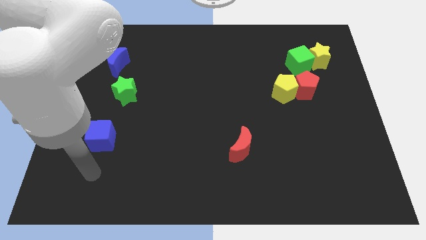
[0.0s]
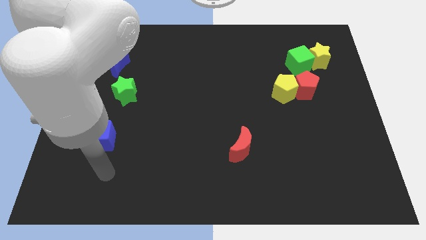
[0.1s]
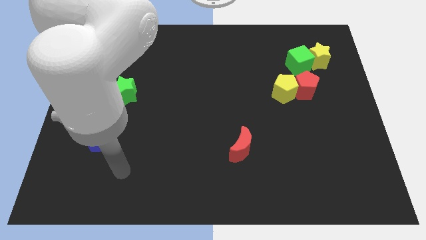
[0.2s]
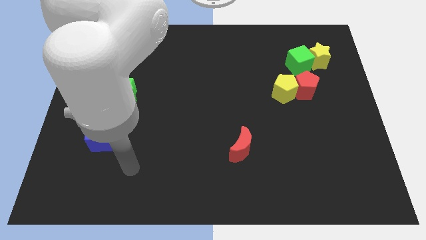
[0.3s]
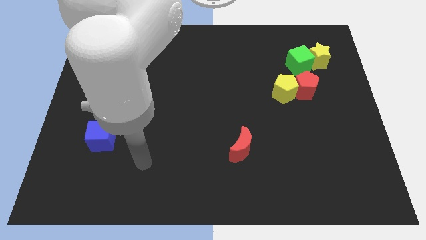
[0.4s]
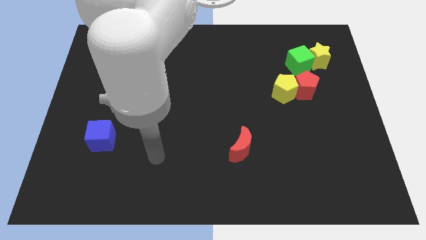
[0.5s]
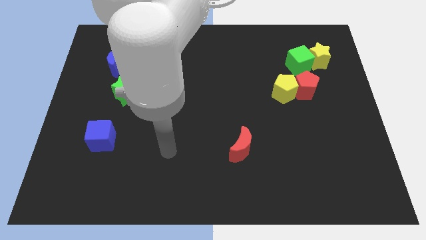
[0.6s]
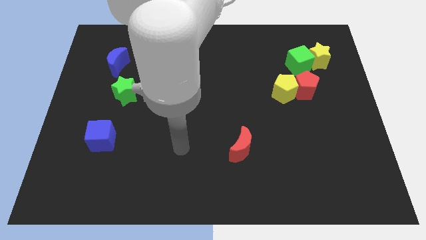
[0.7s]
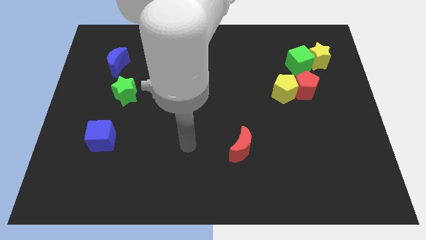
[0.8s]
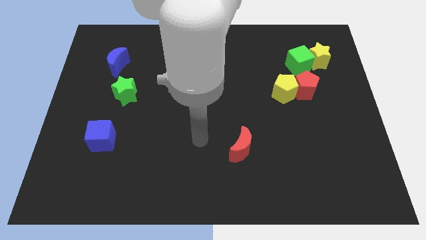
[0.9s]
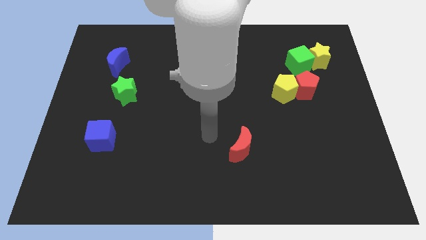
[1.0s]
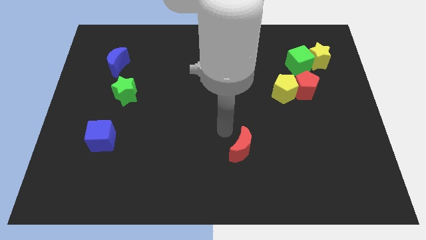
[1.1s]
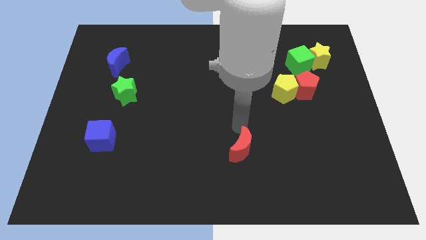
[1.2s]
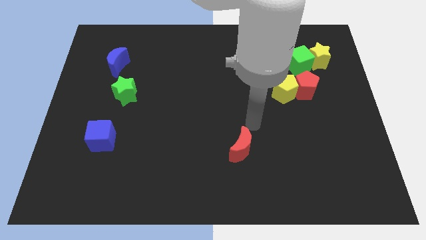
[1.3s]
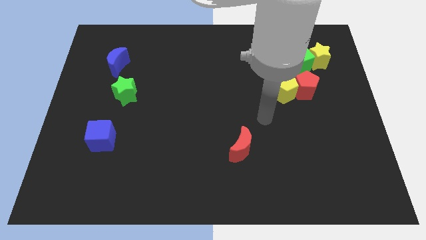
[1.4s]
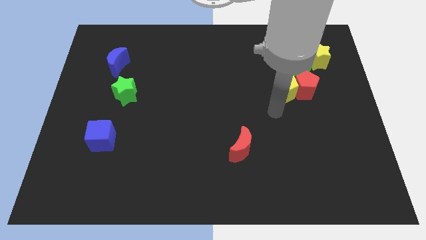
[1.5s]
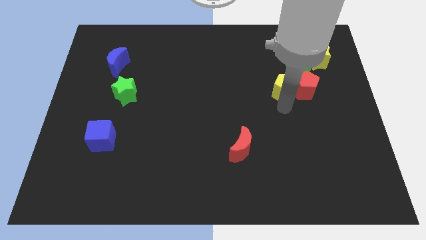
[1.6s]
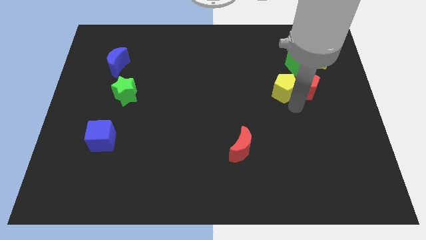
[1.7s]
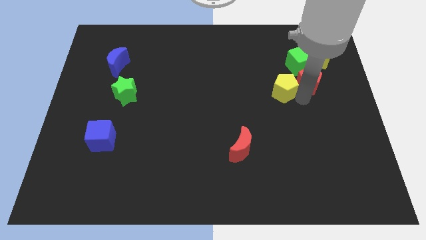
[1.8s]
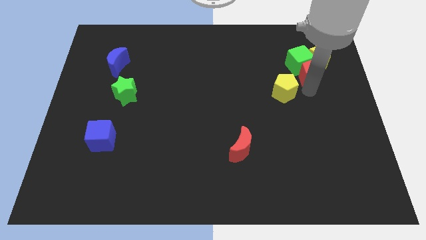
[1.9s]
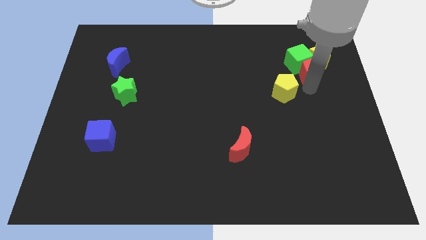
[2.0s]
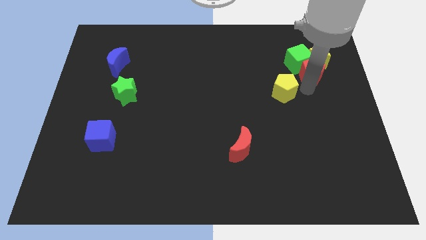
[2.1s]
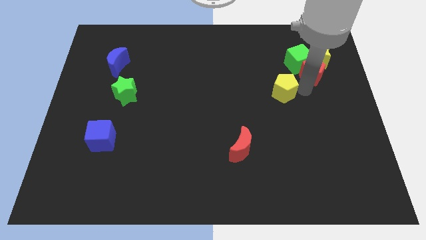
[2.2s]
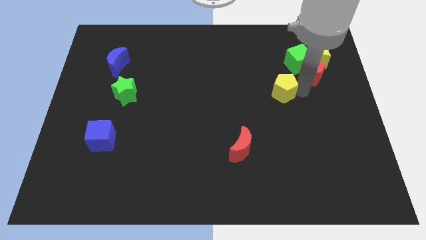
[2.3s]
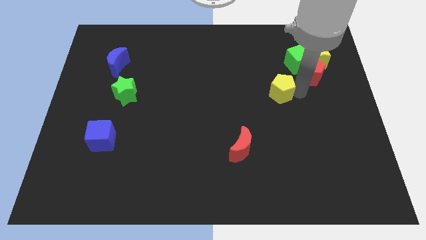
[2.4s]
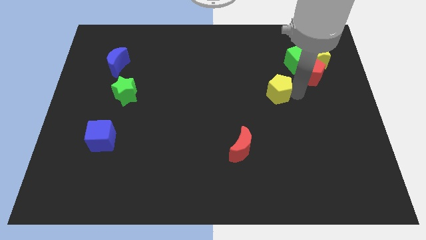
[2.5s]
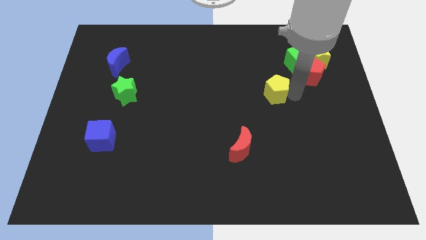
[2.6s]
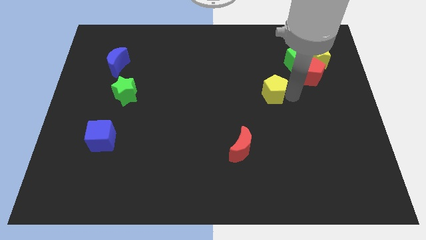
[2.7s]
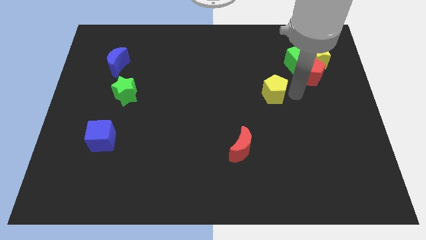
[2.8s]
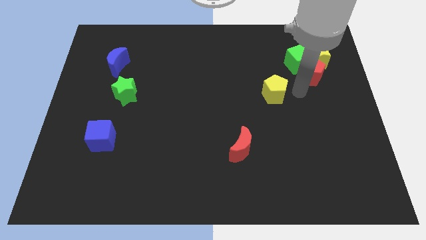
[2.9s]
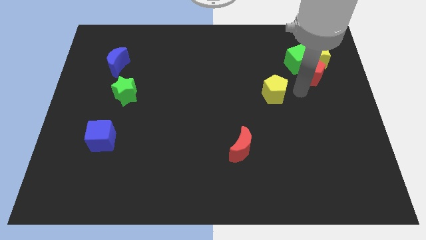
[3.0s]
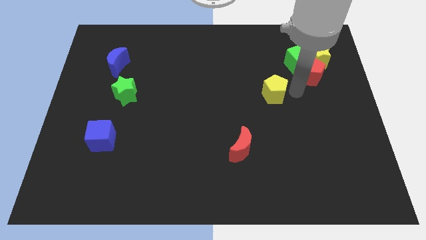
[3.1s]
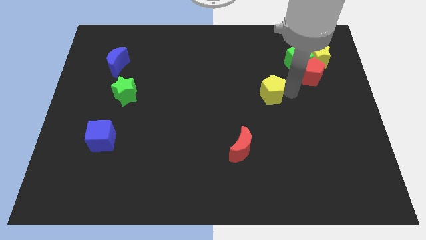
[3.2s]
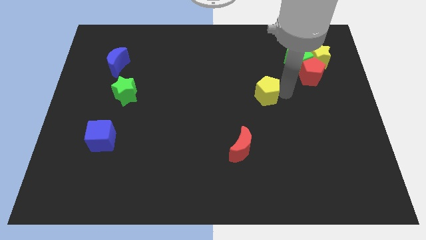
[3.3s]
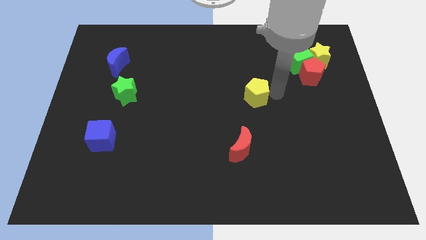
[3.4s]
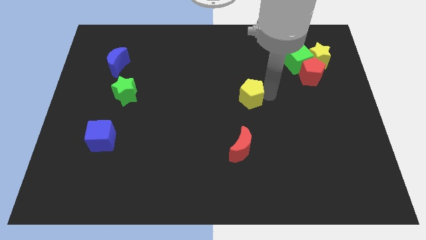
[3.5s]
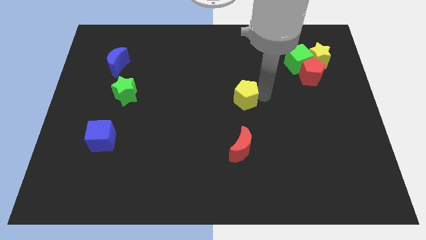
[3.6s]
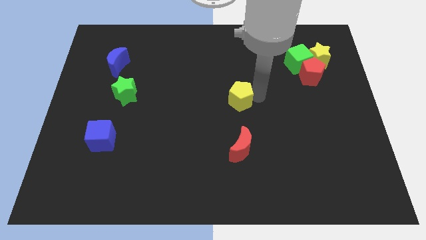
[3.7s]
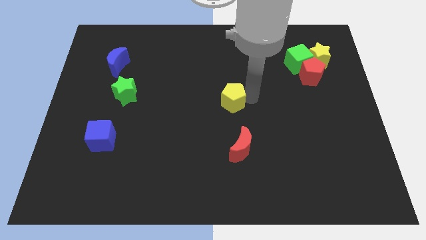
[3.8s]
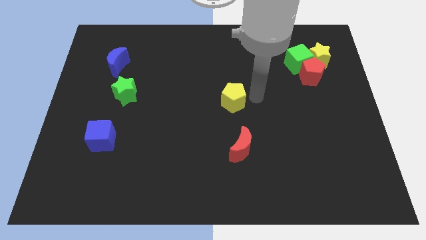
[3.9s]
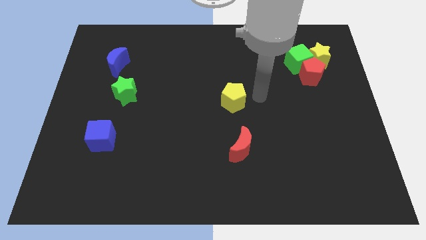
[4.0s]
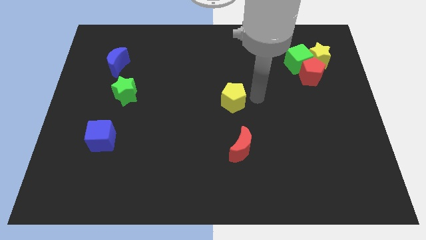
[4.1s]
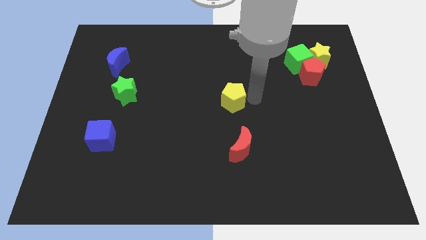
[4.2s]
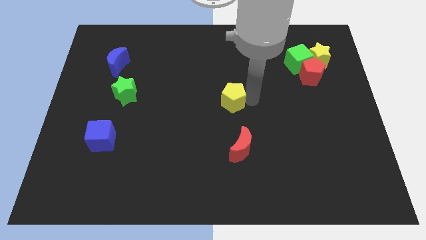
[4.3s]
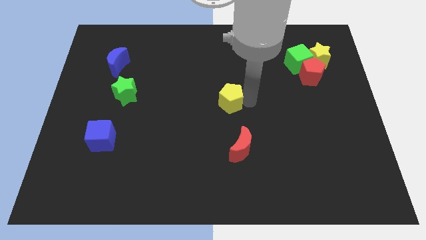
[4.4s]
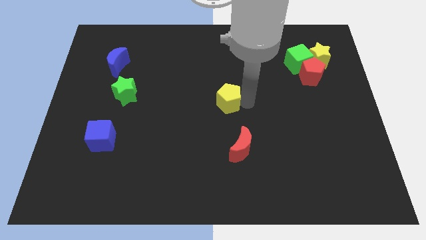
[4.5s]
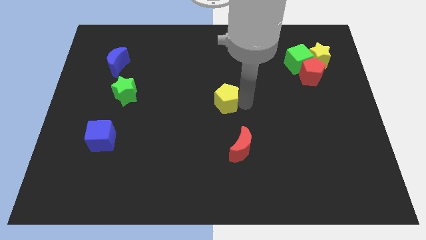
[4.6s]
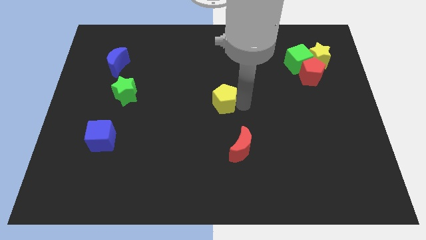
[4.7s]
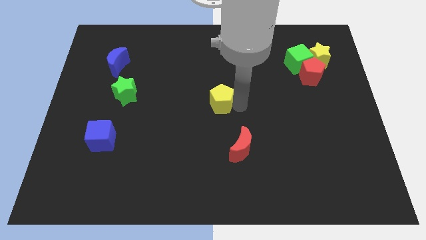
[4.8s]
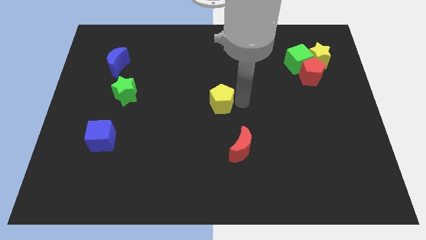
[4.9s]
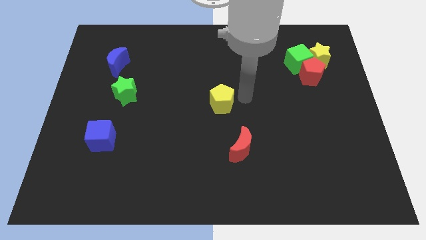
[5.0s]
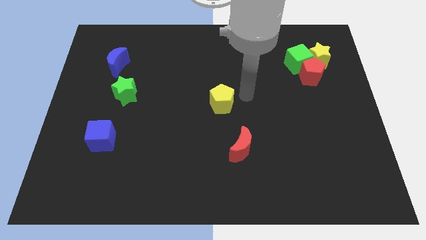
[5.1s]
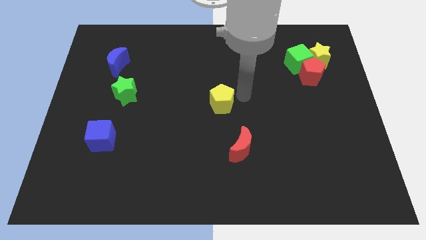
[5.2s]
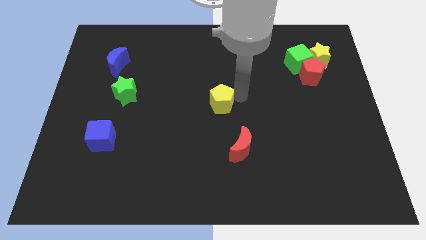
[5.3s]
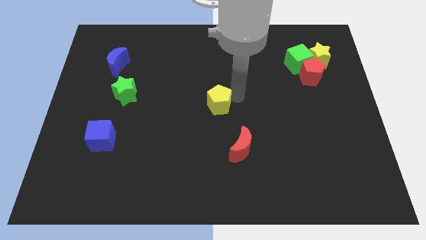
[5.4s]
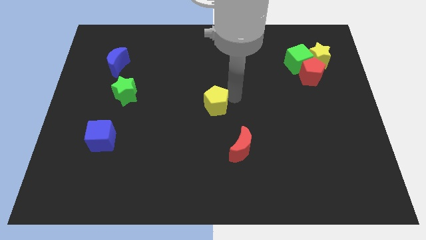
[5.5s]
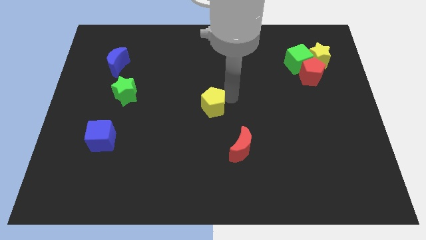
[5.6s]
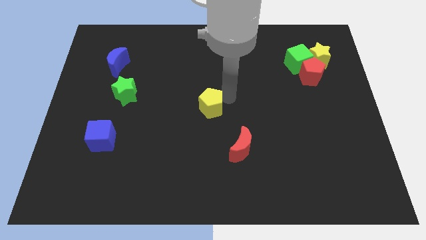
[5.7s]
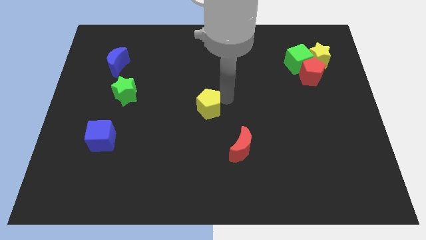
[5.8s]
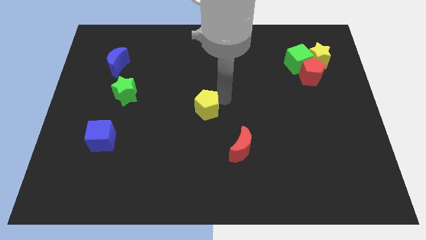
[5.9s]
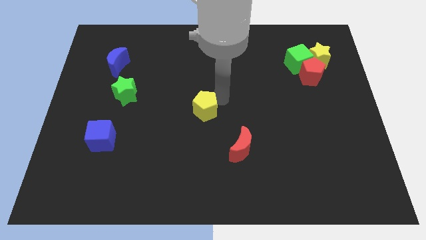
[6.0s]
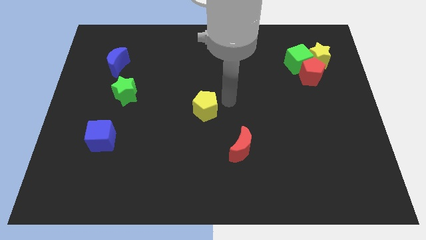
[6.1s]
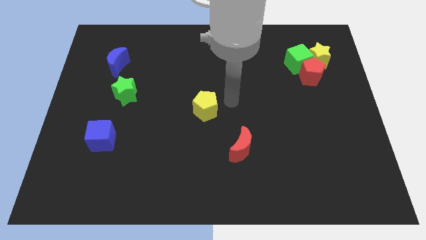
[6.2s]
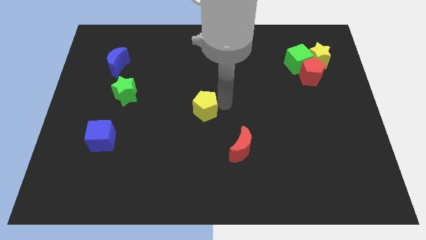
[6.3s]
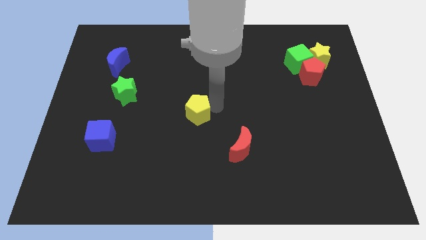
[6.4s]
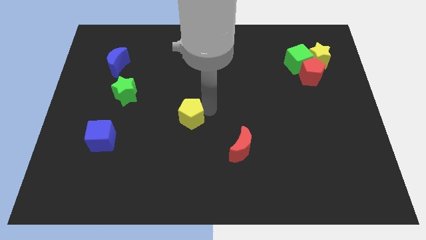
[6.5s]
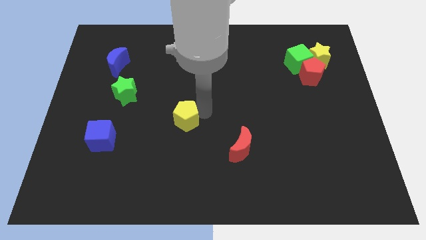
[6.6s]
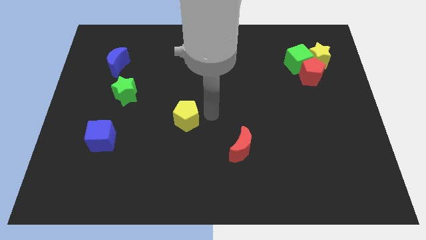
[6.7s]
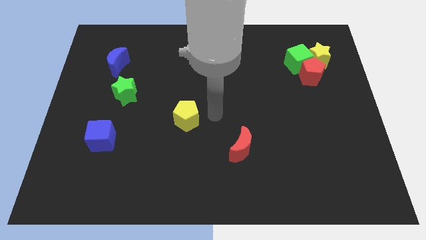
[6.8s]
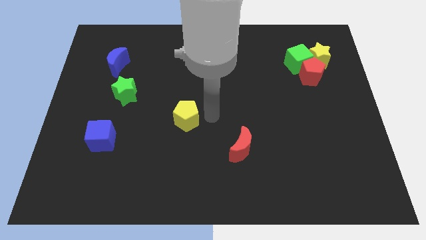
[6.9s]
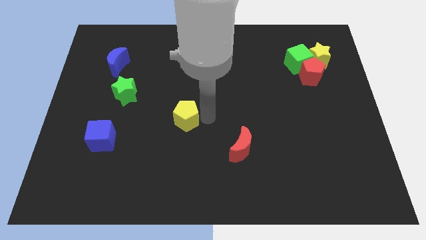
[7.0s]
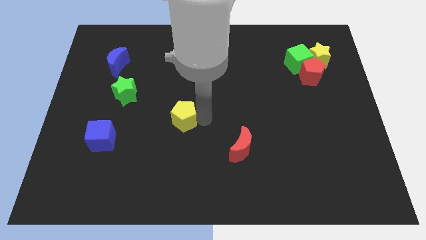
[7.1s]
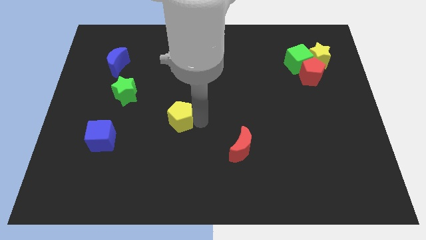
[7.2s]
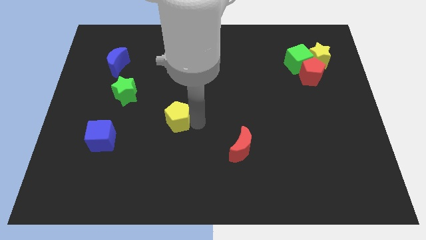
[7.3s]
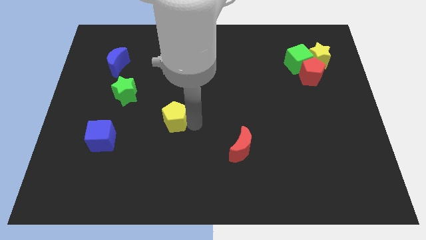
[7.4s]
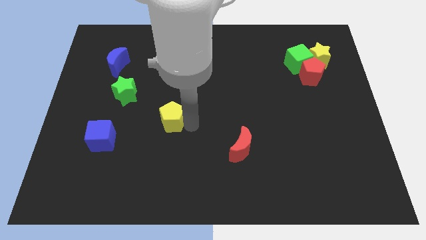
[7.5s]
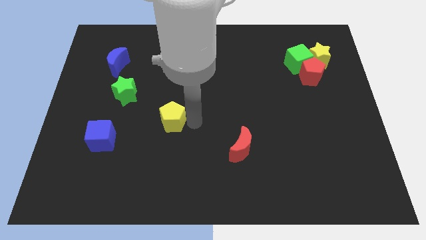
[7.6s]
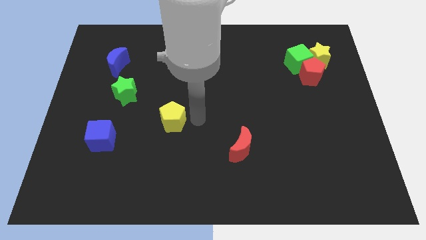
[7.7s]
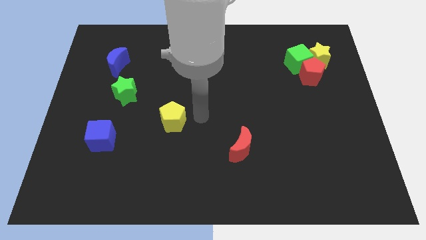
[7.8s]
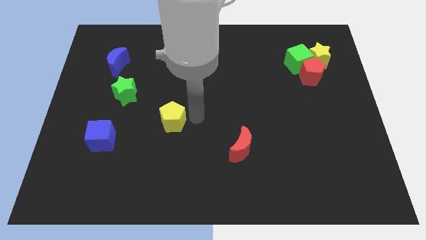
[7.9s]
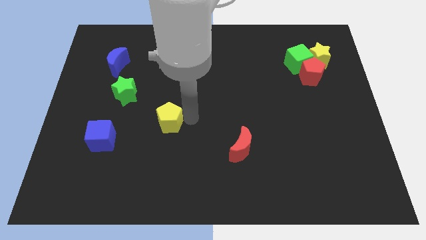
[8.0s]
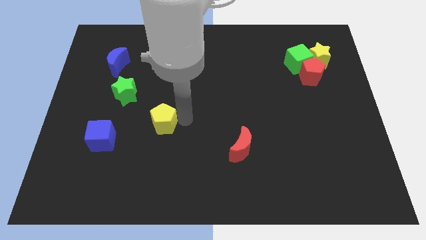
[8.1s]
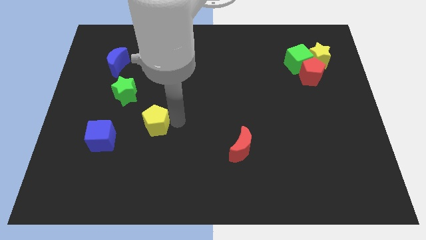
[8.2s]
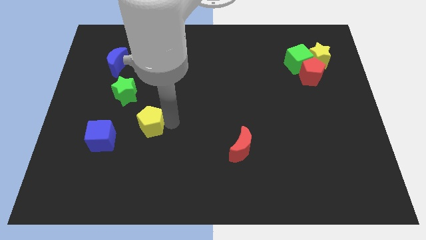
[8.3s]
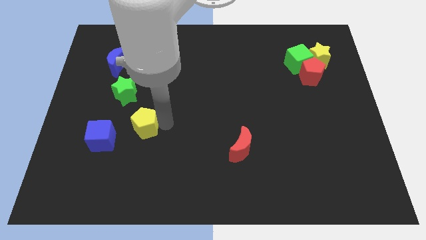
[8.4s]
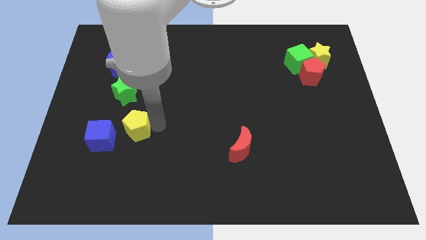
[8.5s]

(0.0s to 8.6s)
move the yellow pentagon below the green star
